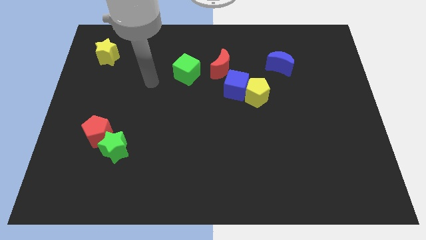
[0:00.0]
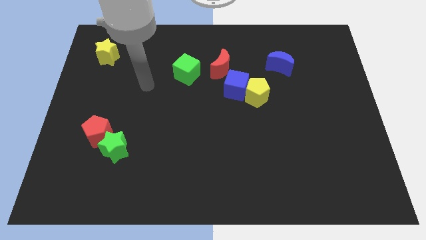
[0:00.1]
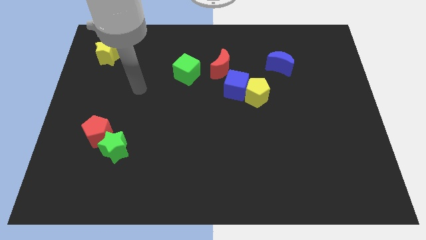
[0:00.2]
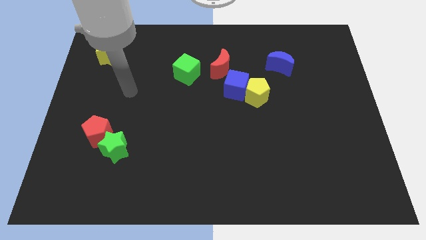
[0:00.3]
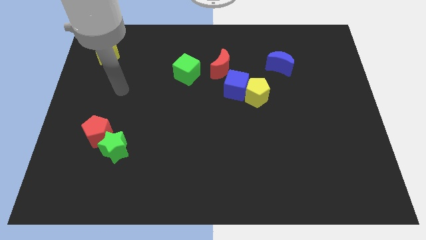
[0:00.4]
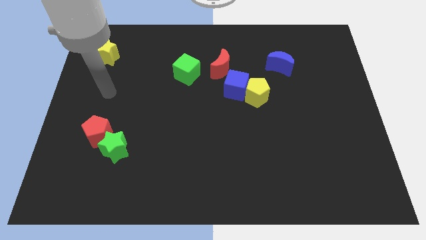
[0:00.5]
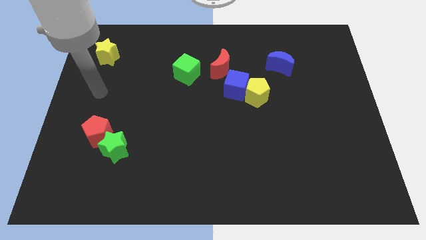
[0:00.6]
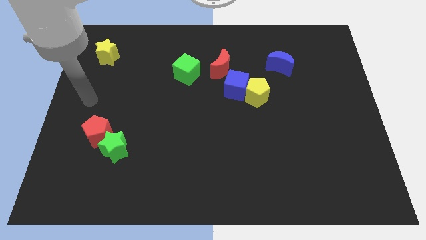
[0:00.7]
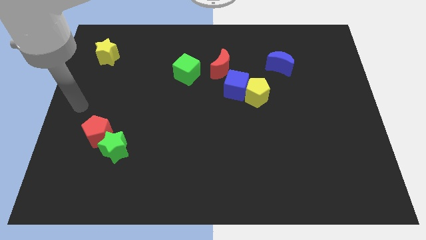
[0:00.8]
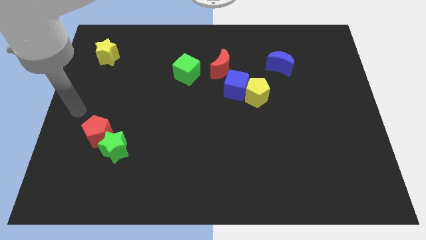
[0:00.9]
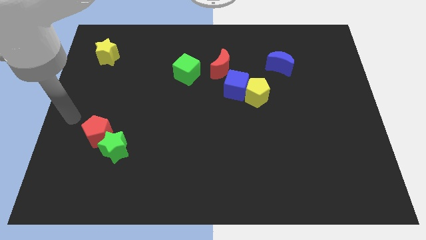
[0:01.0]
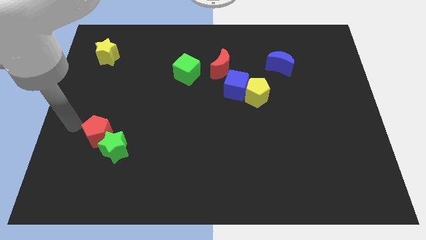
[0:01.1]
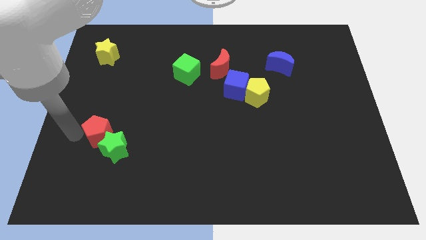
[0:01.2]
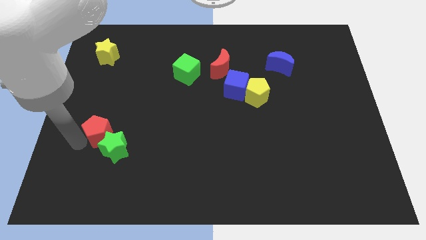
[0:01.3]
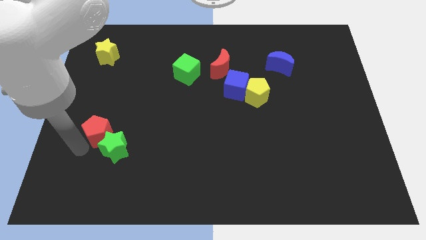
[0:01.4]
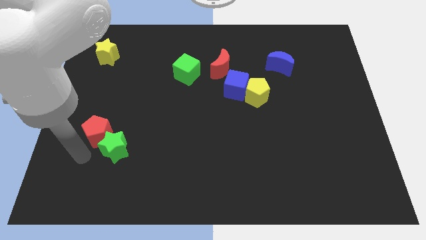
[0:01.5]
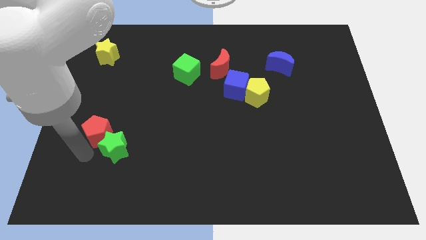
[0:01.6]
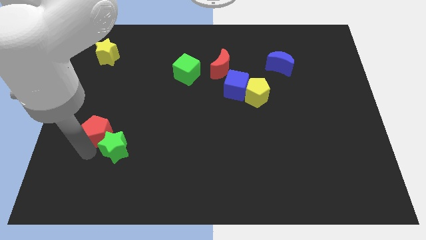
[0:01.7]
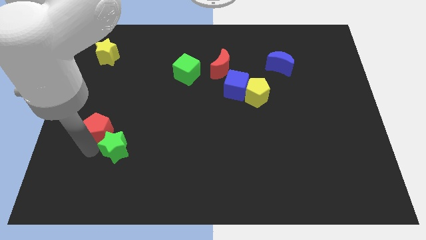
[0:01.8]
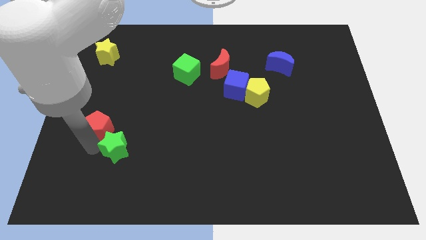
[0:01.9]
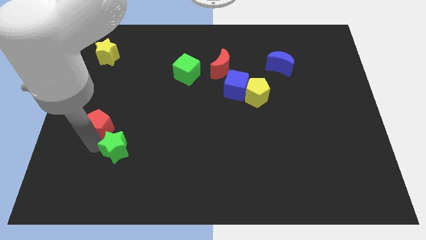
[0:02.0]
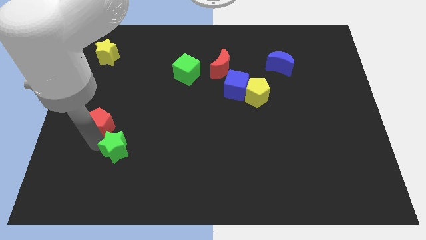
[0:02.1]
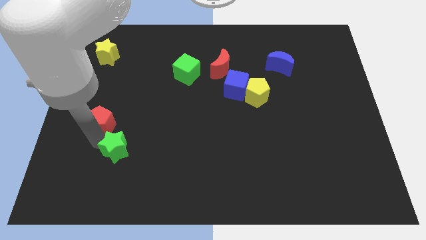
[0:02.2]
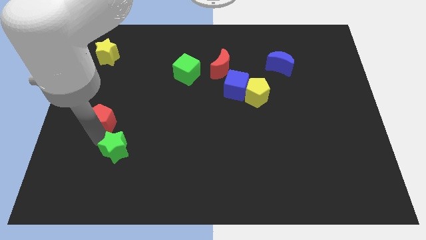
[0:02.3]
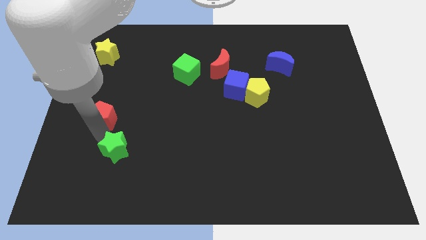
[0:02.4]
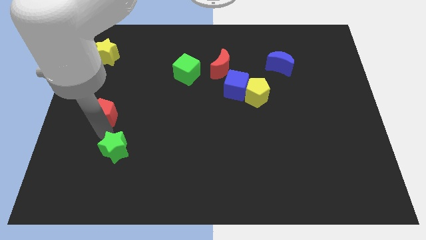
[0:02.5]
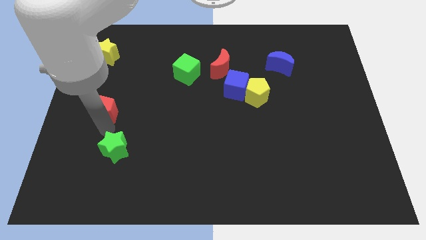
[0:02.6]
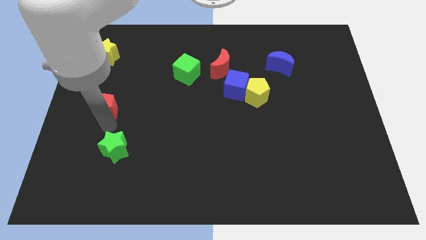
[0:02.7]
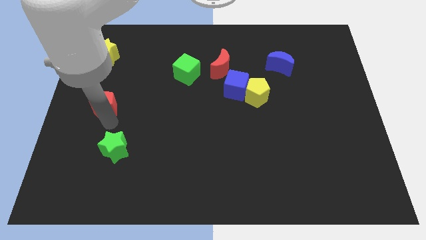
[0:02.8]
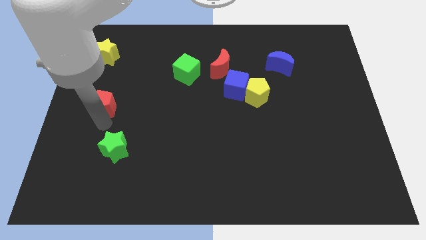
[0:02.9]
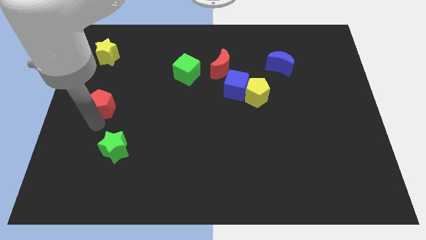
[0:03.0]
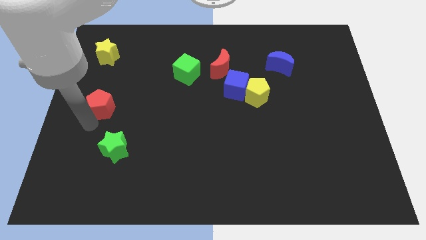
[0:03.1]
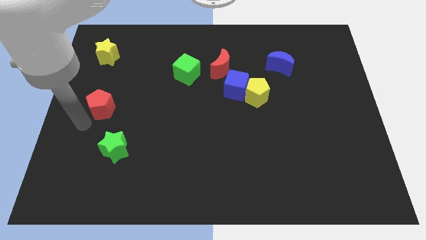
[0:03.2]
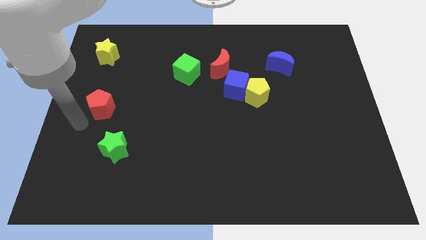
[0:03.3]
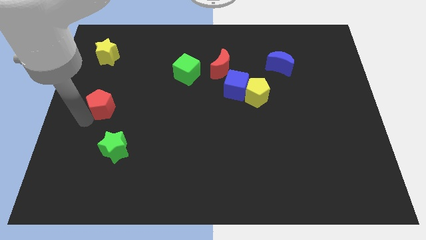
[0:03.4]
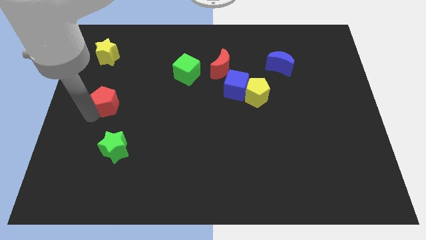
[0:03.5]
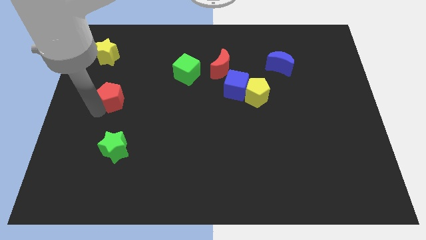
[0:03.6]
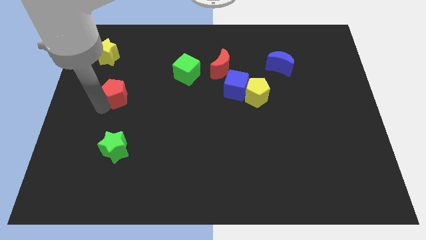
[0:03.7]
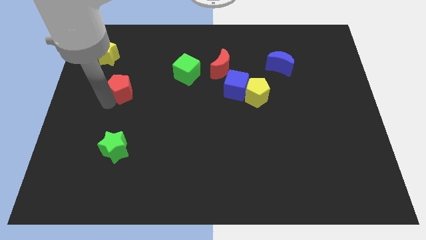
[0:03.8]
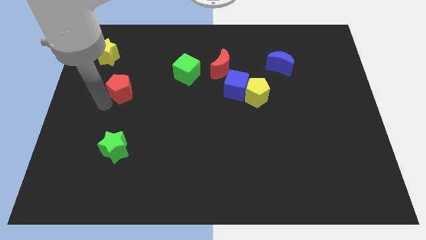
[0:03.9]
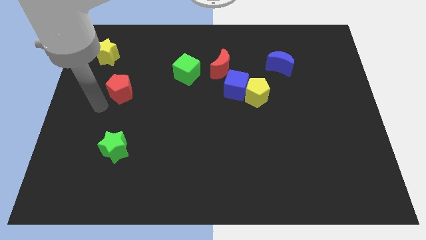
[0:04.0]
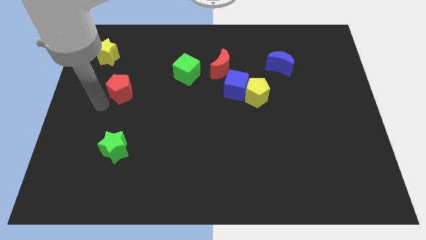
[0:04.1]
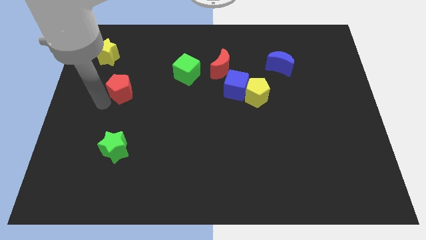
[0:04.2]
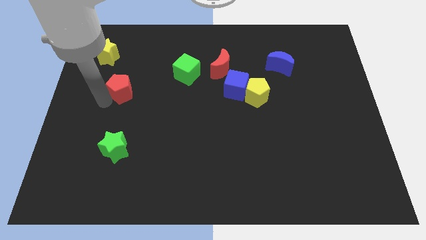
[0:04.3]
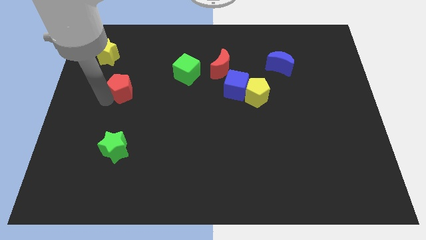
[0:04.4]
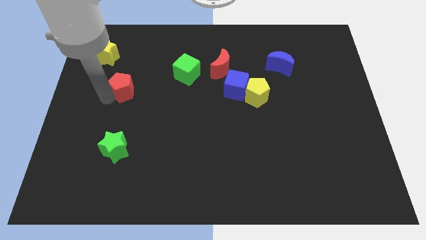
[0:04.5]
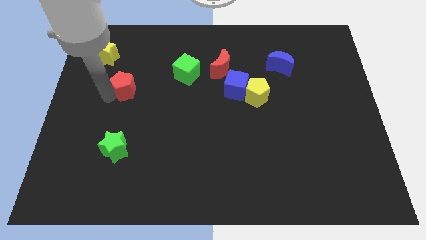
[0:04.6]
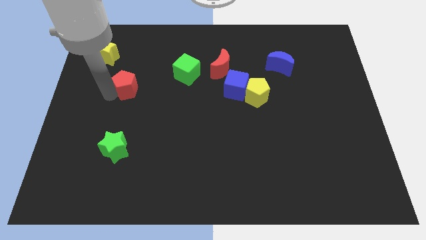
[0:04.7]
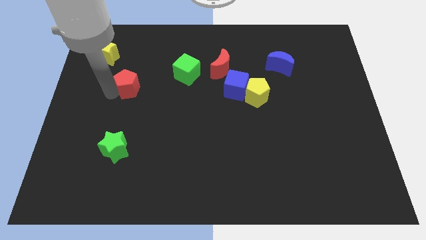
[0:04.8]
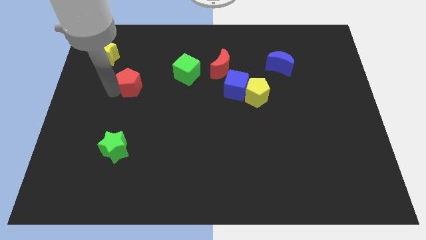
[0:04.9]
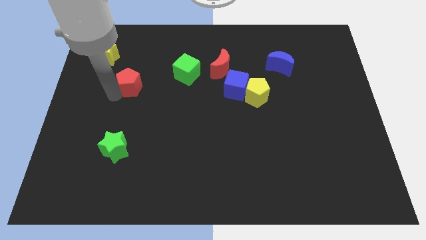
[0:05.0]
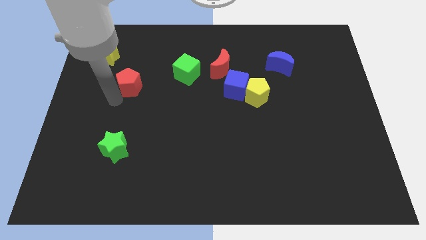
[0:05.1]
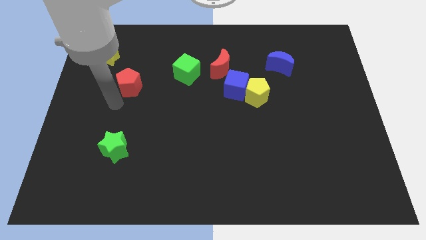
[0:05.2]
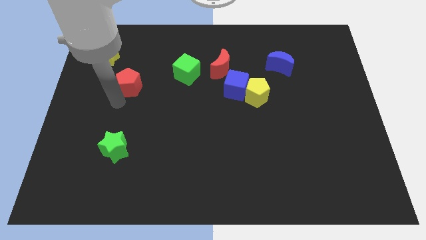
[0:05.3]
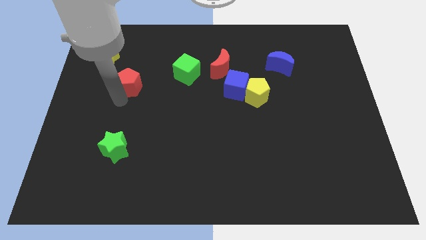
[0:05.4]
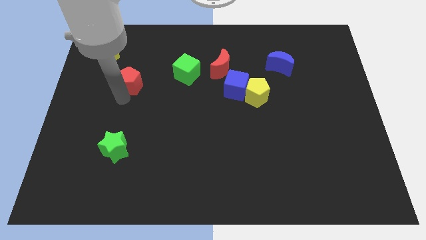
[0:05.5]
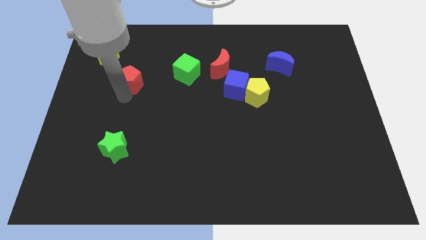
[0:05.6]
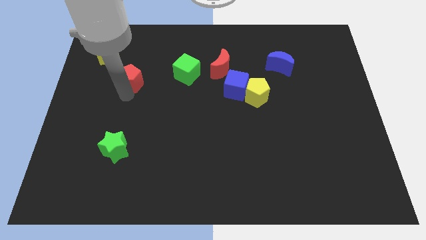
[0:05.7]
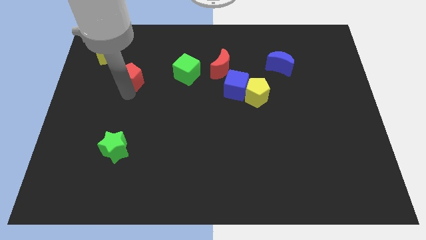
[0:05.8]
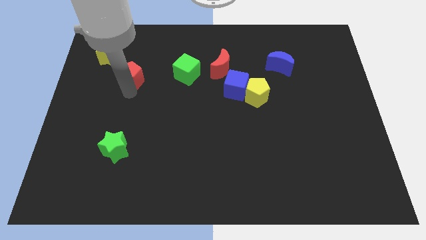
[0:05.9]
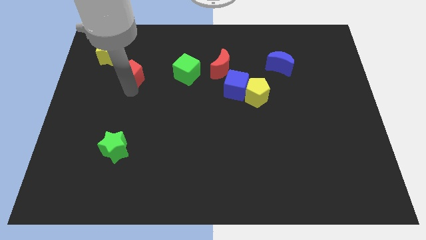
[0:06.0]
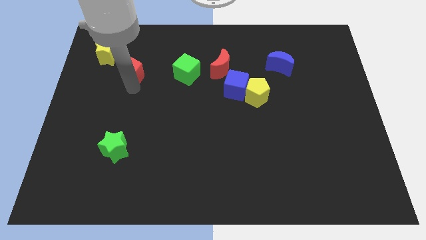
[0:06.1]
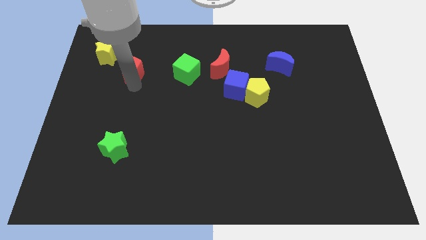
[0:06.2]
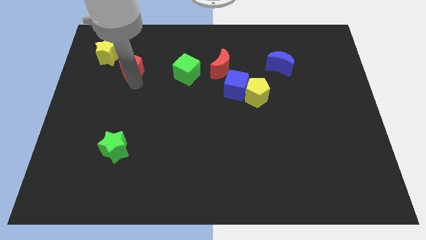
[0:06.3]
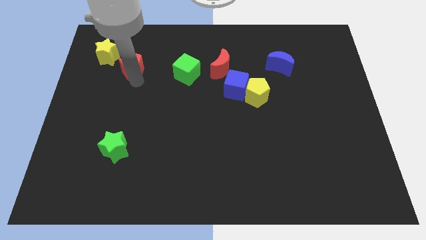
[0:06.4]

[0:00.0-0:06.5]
put the red pentagon just right of the yellow star
